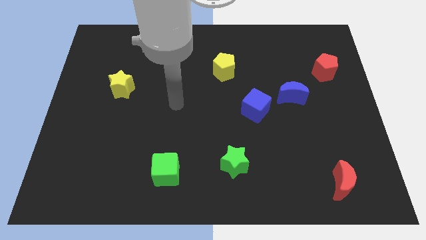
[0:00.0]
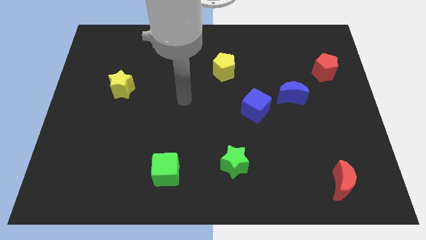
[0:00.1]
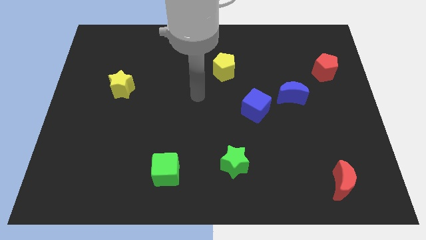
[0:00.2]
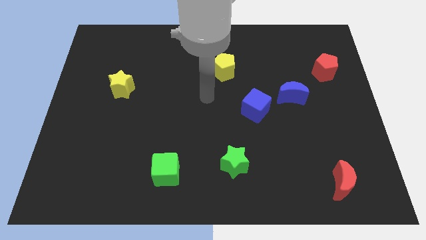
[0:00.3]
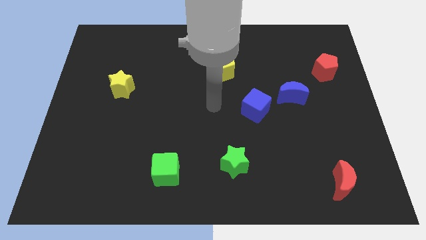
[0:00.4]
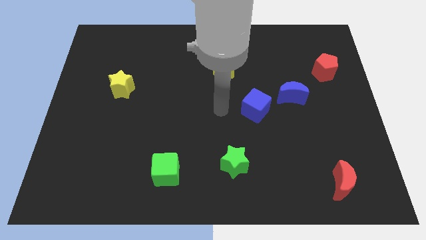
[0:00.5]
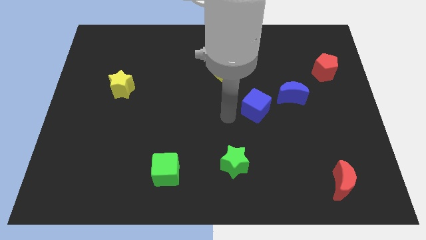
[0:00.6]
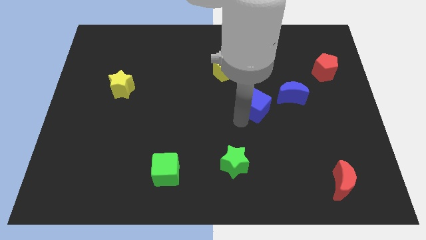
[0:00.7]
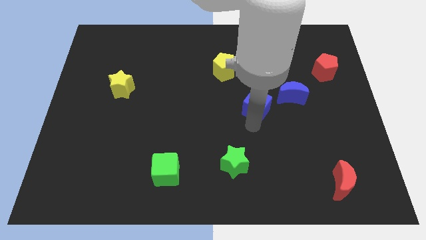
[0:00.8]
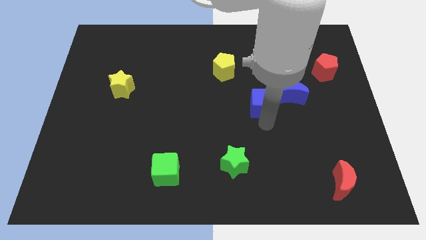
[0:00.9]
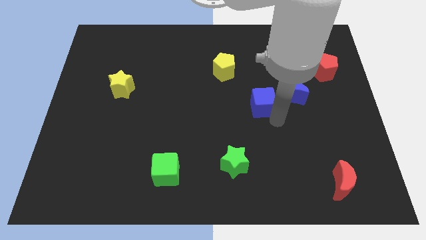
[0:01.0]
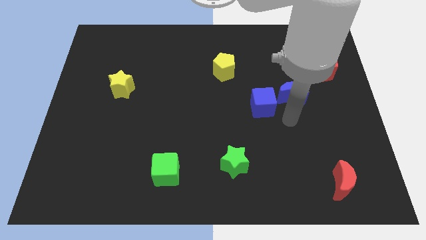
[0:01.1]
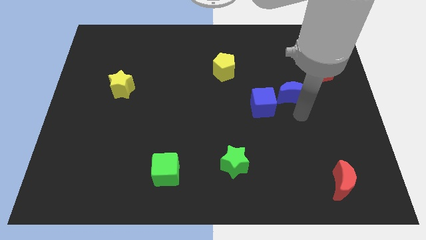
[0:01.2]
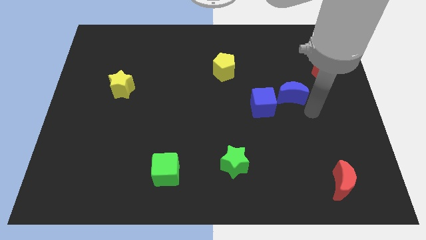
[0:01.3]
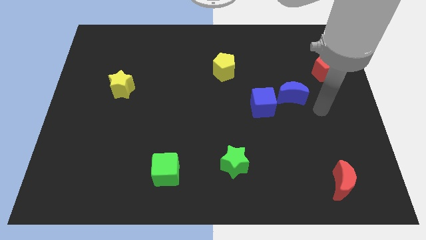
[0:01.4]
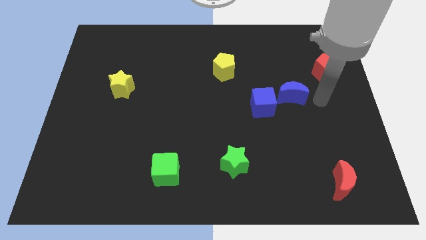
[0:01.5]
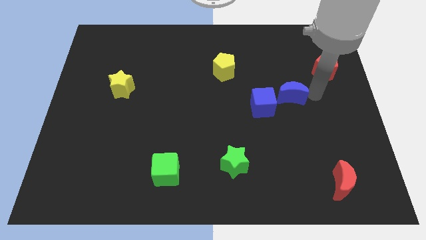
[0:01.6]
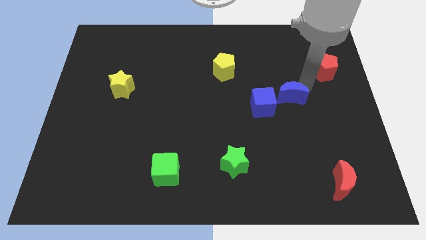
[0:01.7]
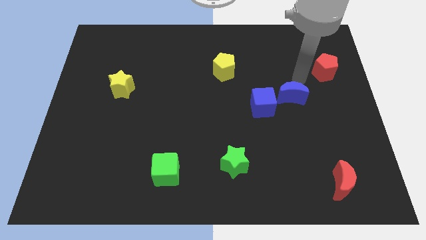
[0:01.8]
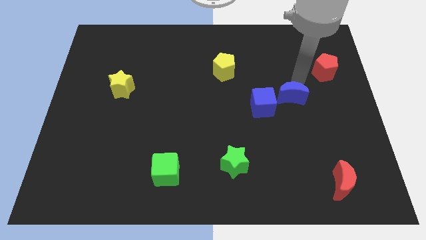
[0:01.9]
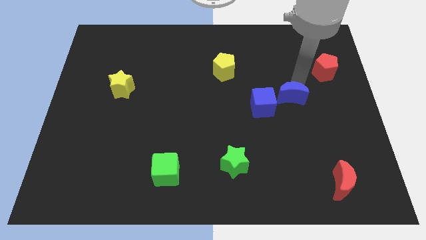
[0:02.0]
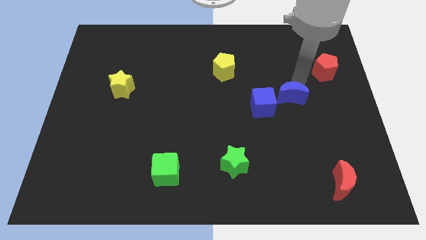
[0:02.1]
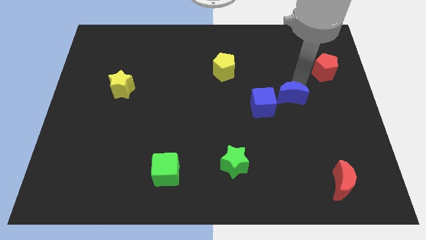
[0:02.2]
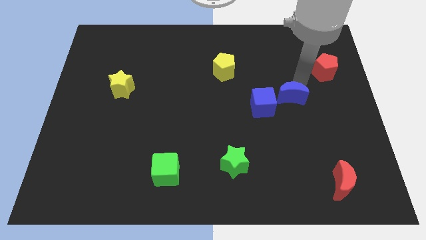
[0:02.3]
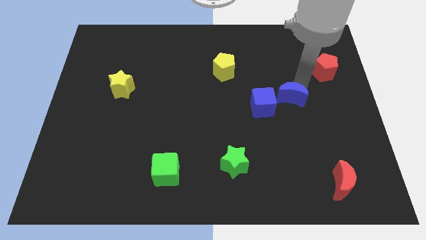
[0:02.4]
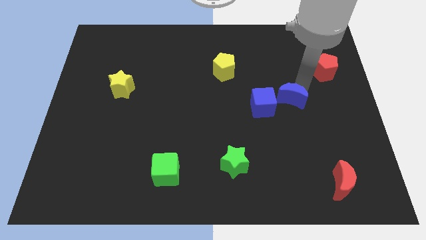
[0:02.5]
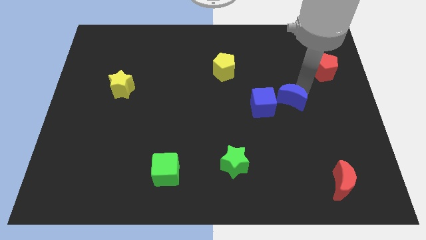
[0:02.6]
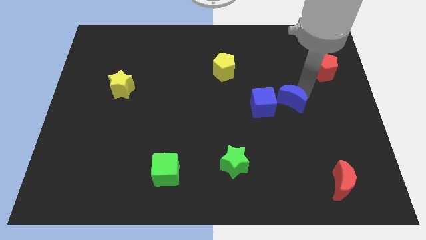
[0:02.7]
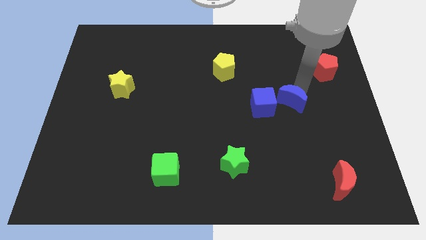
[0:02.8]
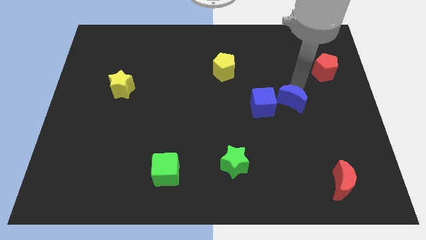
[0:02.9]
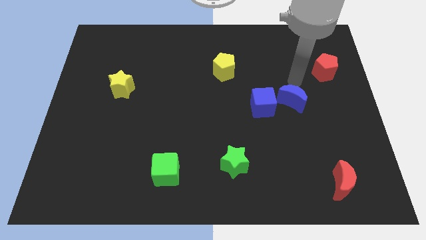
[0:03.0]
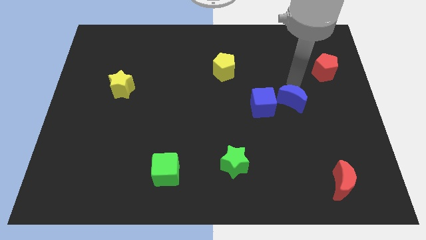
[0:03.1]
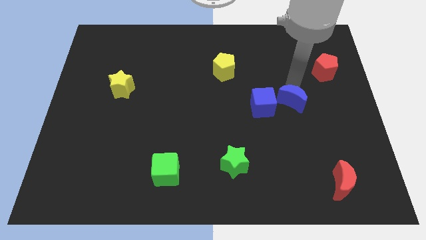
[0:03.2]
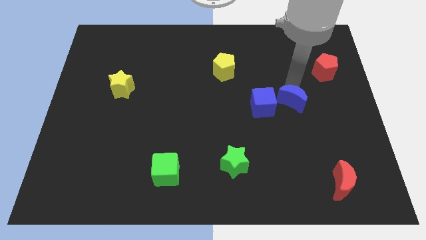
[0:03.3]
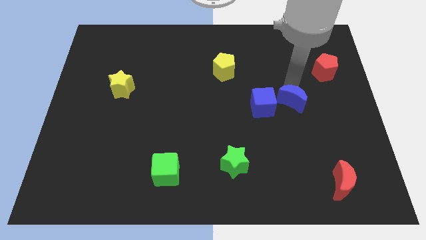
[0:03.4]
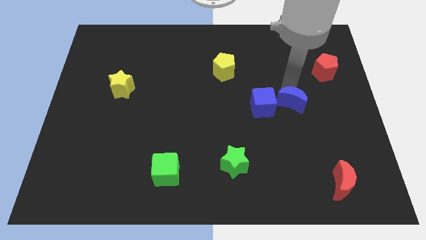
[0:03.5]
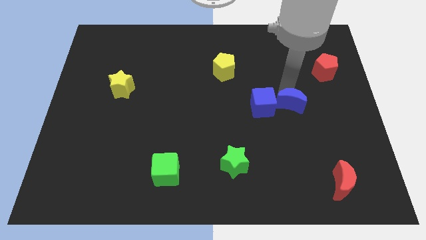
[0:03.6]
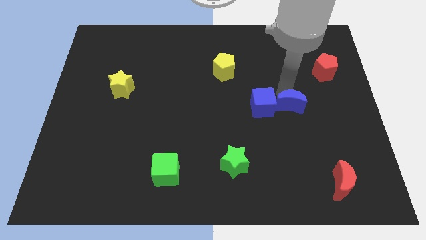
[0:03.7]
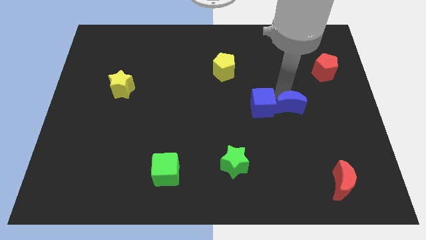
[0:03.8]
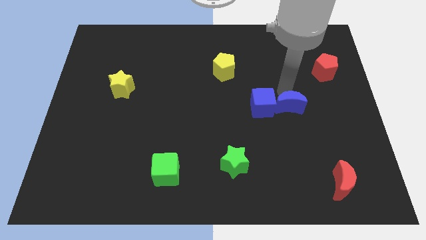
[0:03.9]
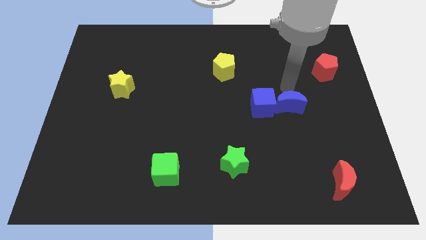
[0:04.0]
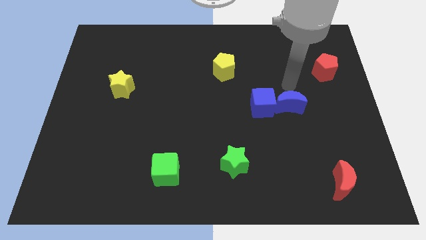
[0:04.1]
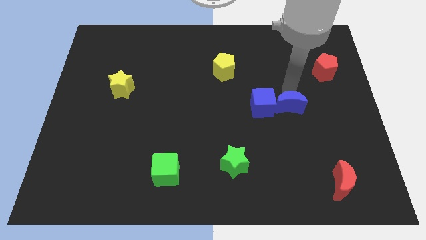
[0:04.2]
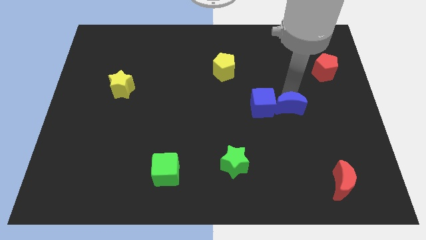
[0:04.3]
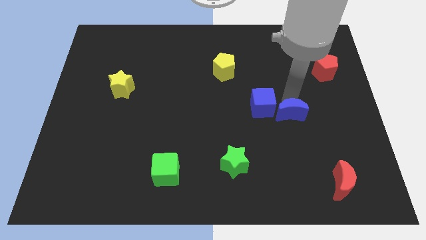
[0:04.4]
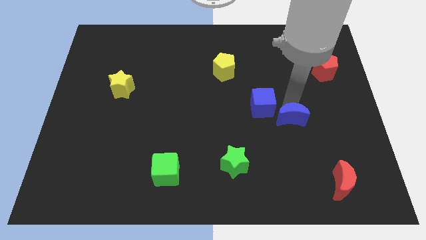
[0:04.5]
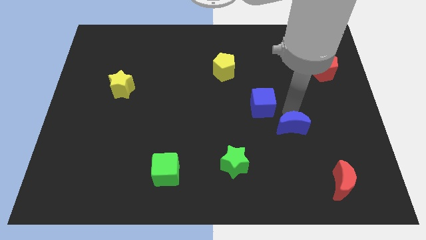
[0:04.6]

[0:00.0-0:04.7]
slightly push the blue moon downwards

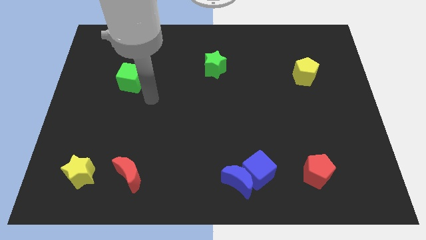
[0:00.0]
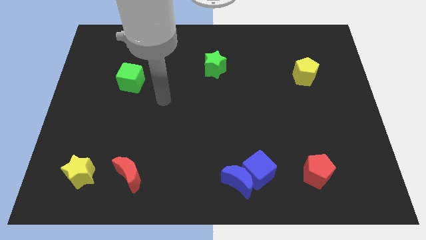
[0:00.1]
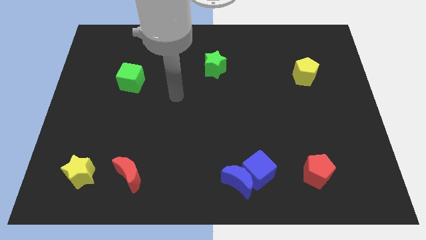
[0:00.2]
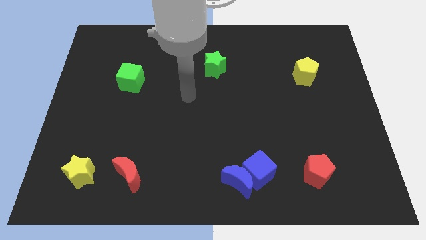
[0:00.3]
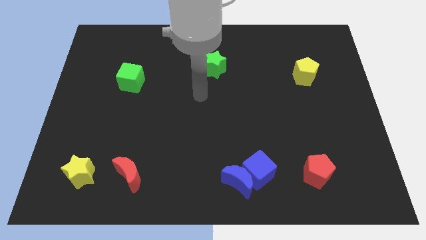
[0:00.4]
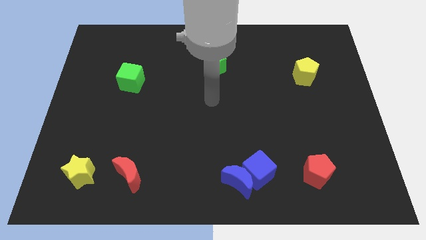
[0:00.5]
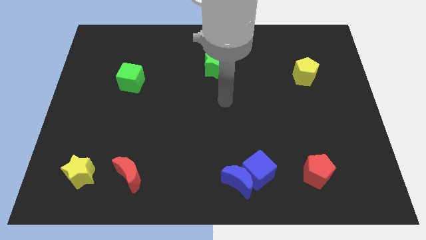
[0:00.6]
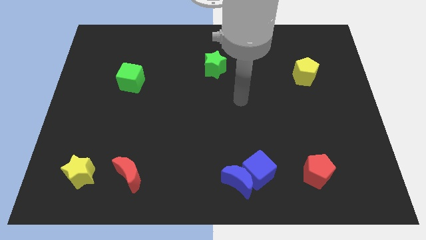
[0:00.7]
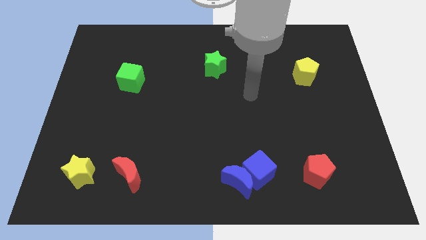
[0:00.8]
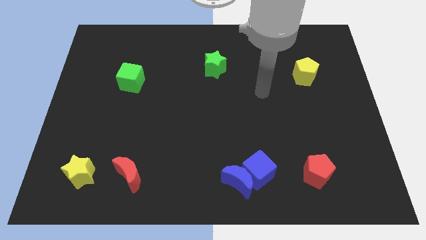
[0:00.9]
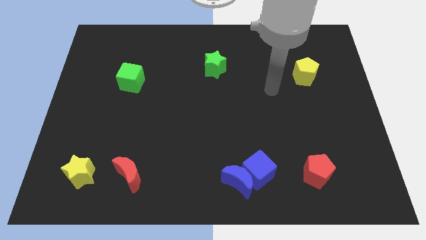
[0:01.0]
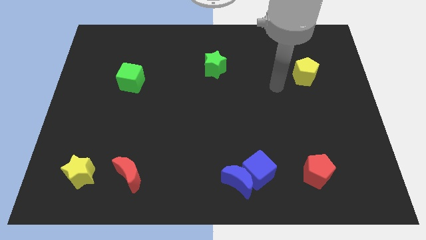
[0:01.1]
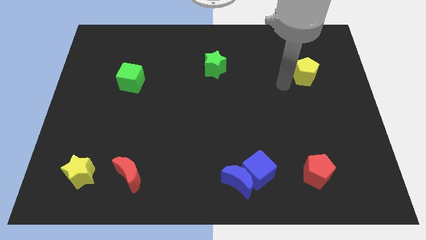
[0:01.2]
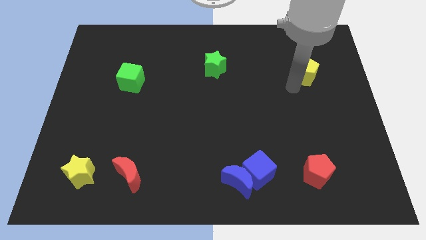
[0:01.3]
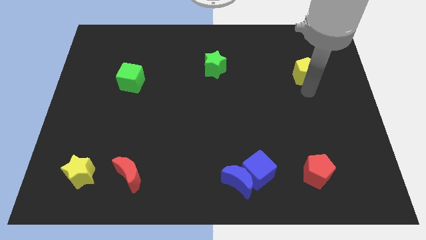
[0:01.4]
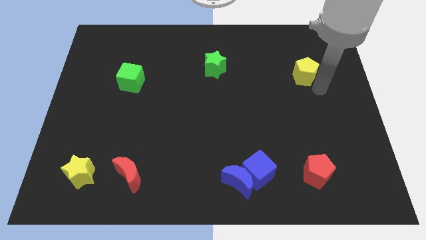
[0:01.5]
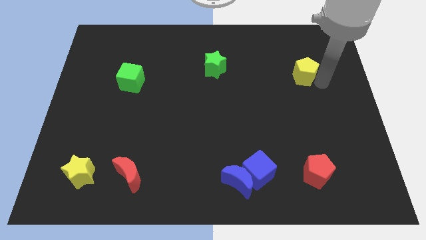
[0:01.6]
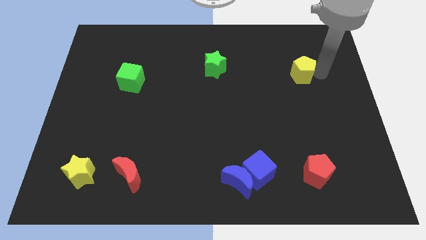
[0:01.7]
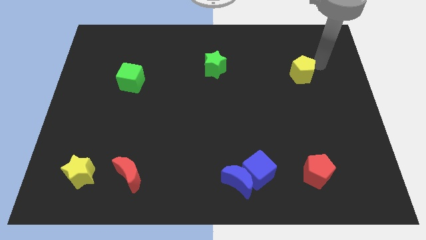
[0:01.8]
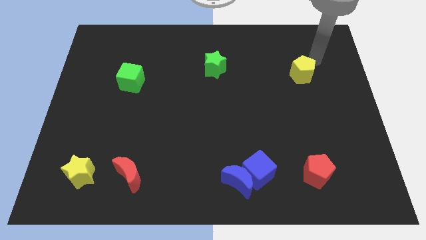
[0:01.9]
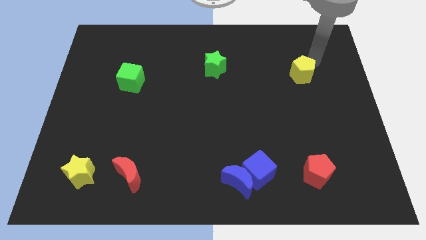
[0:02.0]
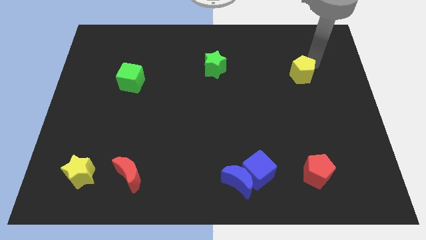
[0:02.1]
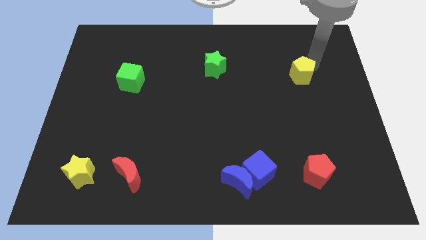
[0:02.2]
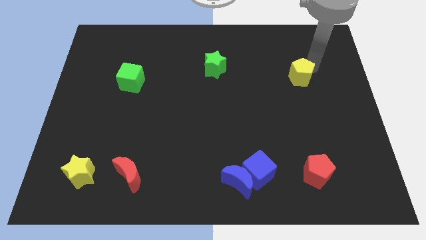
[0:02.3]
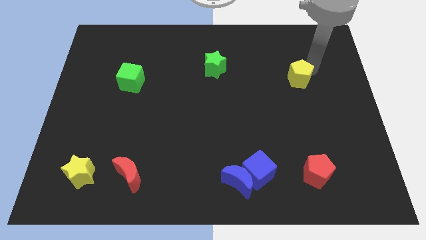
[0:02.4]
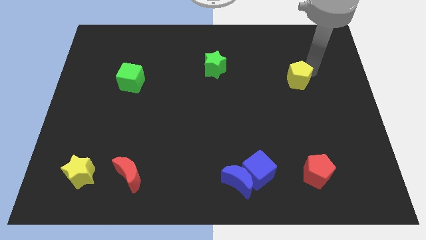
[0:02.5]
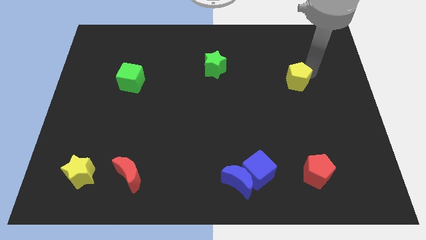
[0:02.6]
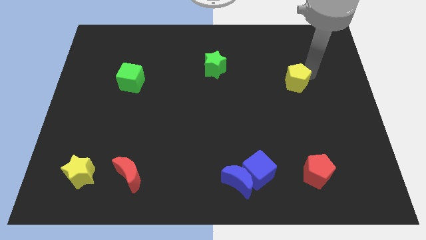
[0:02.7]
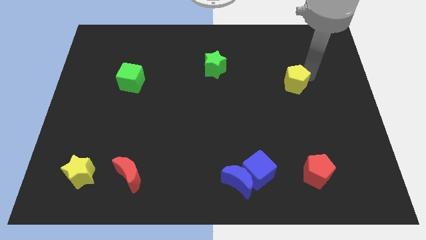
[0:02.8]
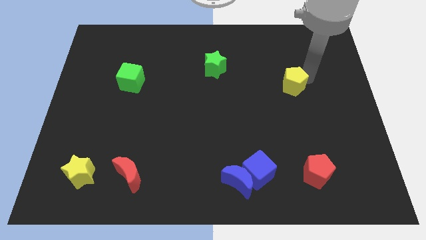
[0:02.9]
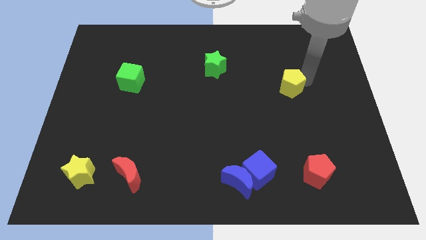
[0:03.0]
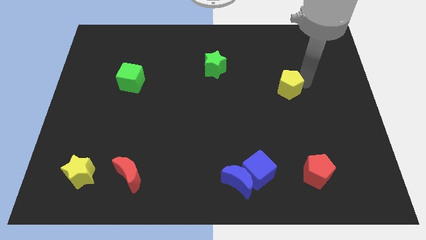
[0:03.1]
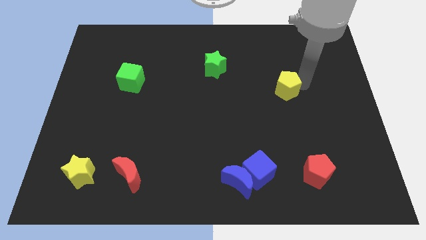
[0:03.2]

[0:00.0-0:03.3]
move the yellow pentagon a little bit down and then left

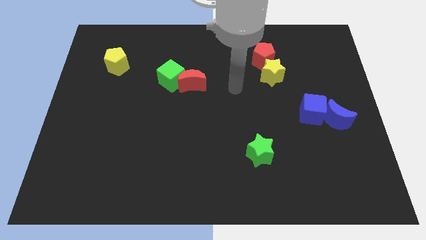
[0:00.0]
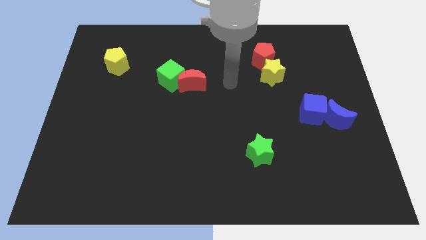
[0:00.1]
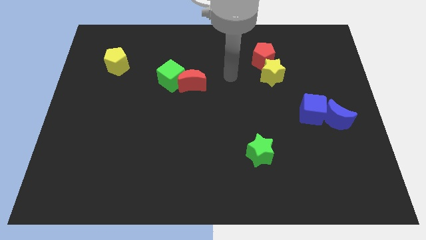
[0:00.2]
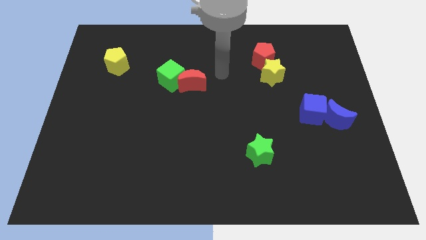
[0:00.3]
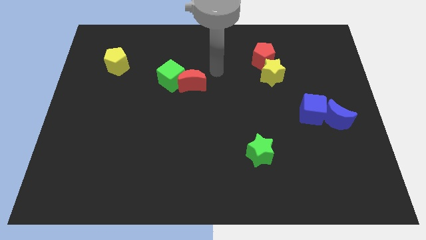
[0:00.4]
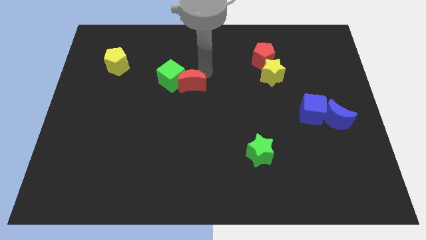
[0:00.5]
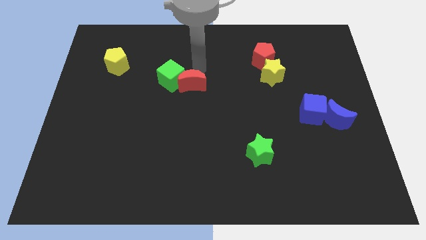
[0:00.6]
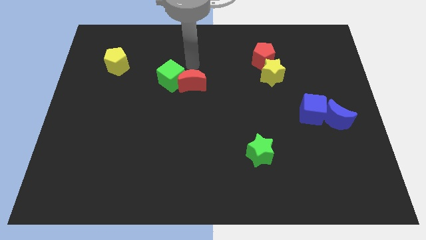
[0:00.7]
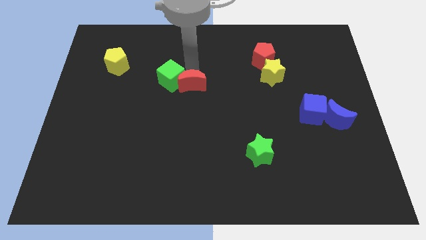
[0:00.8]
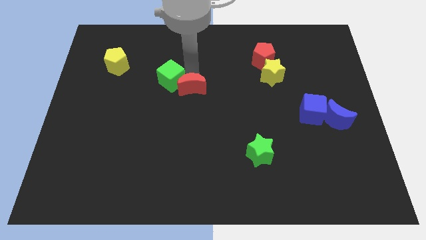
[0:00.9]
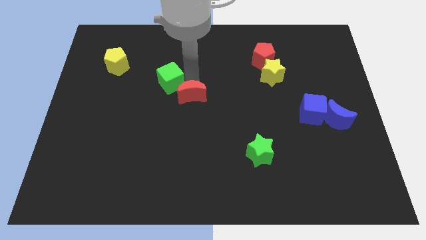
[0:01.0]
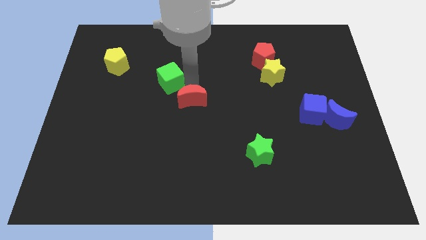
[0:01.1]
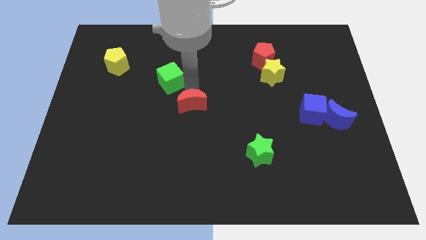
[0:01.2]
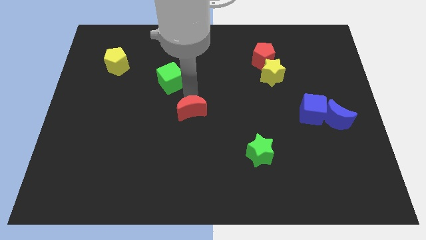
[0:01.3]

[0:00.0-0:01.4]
slightly slide the red moon downwards
